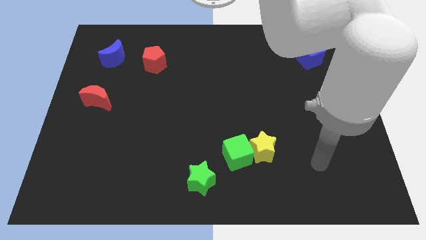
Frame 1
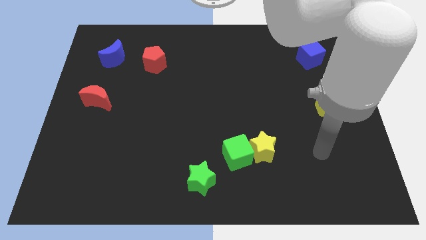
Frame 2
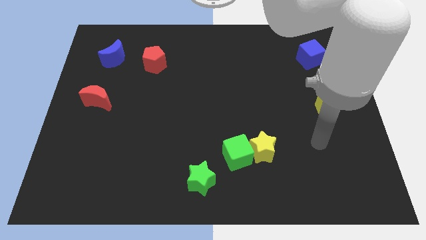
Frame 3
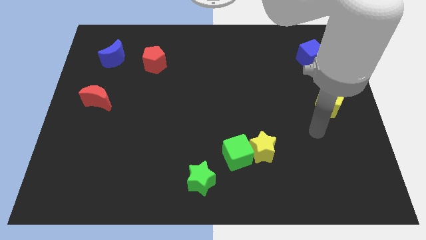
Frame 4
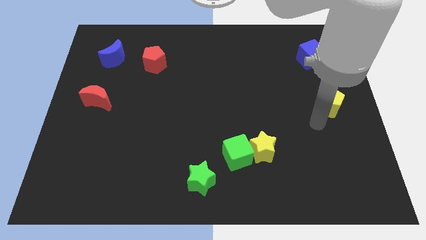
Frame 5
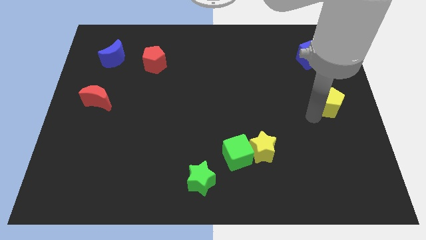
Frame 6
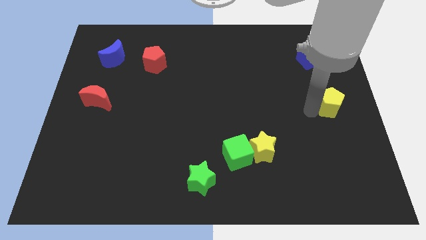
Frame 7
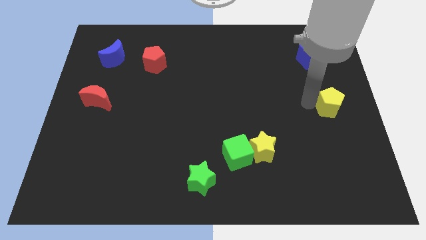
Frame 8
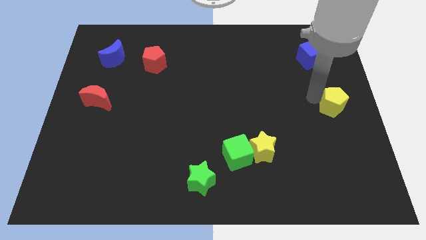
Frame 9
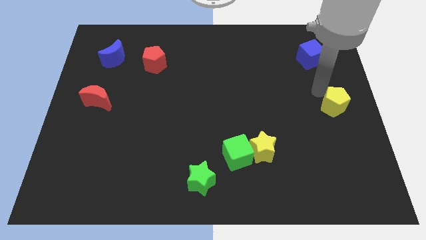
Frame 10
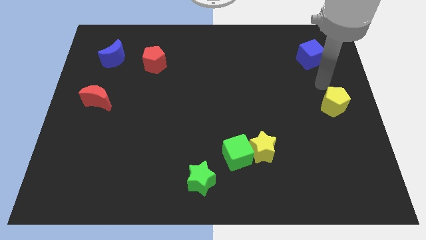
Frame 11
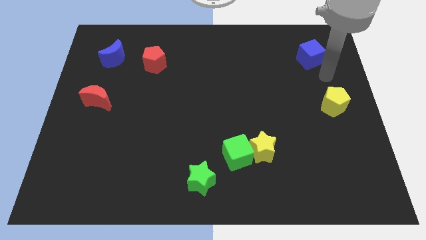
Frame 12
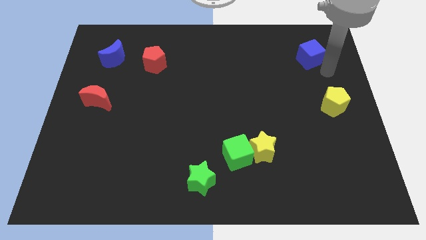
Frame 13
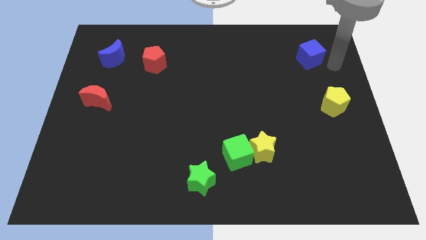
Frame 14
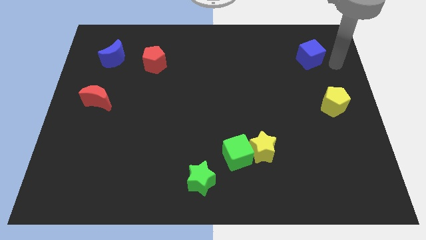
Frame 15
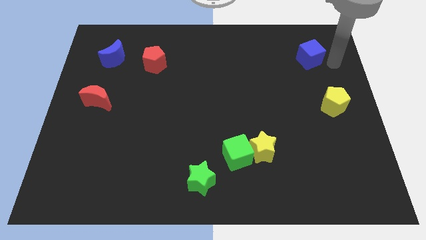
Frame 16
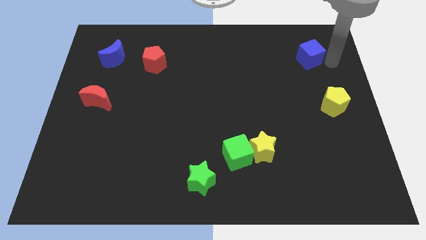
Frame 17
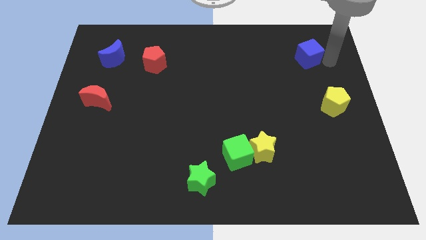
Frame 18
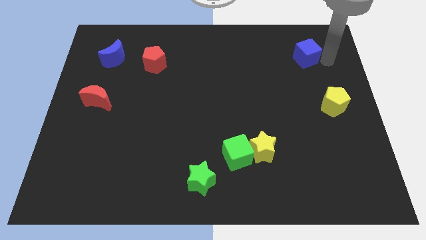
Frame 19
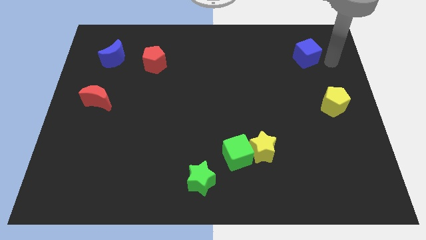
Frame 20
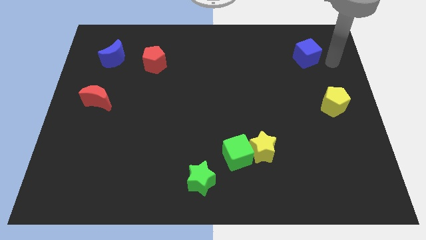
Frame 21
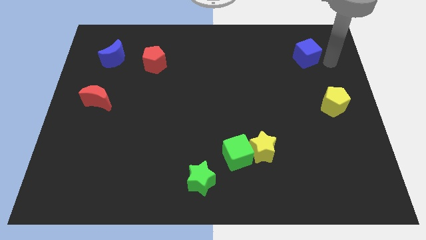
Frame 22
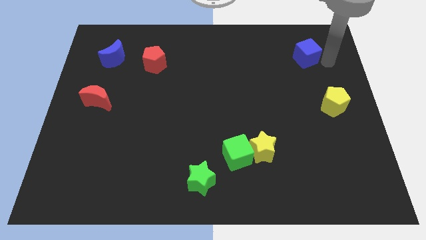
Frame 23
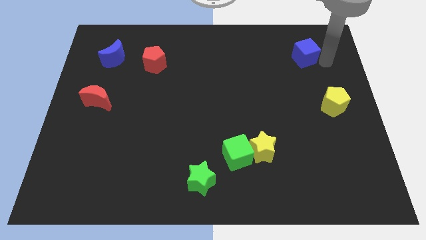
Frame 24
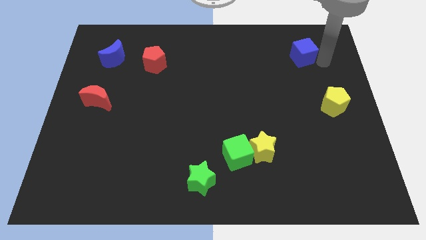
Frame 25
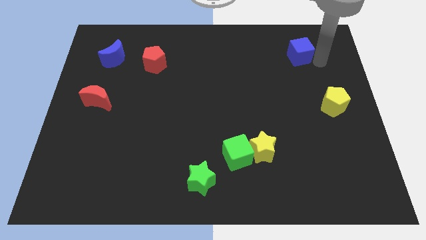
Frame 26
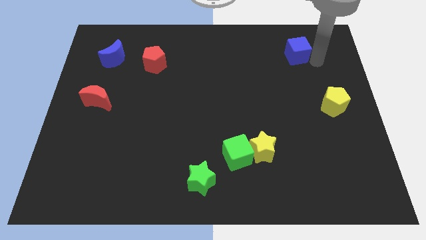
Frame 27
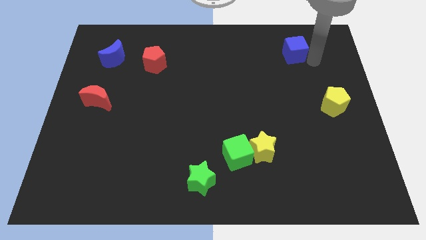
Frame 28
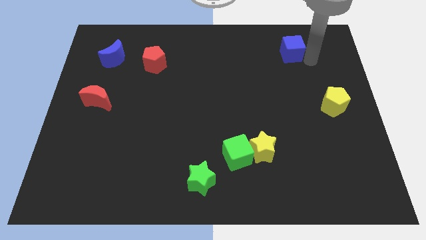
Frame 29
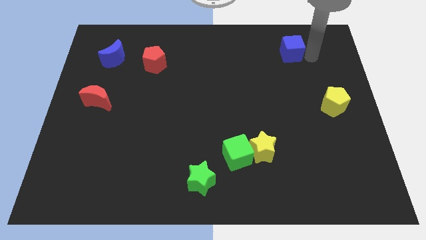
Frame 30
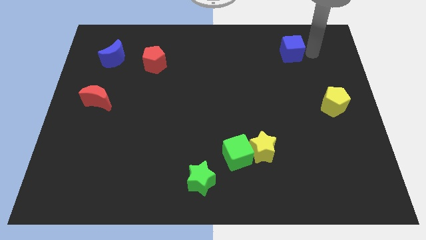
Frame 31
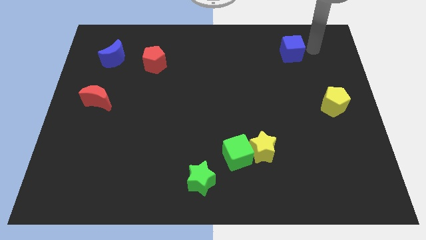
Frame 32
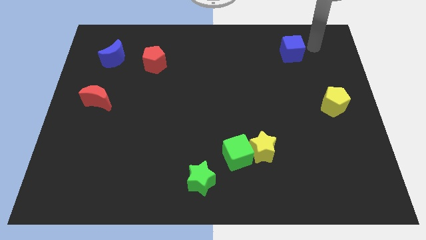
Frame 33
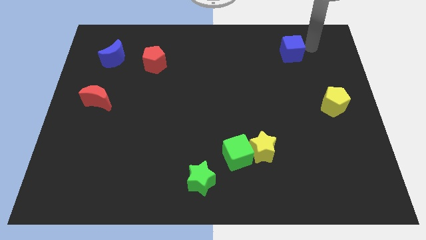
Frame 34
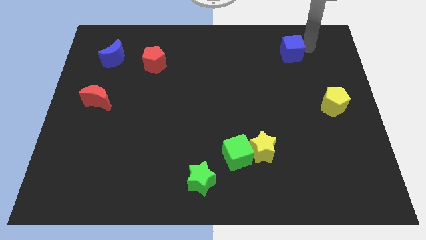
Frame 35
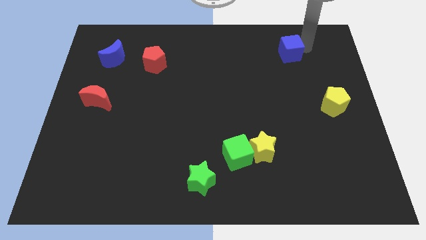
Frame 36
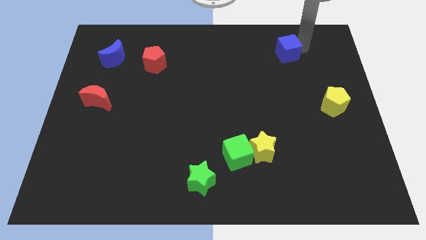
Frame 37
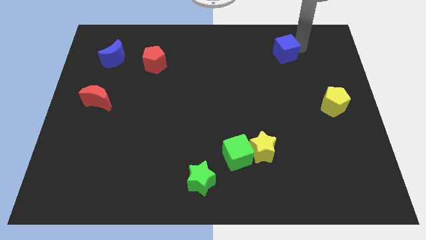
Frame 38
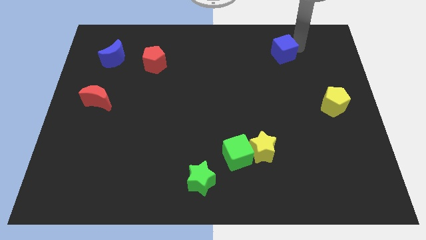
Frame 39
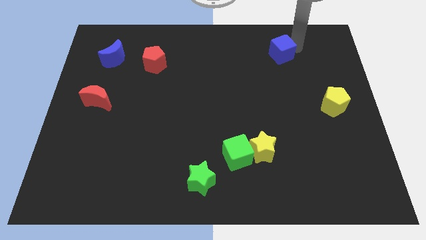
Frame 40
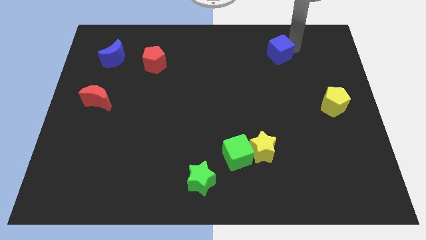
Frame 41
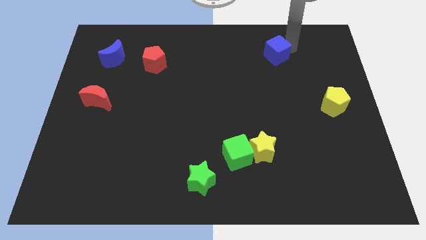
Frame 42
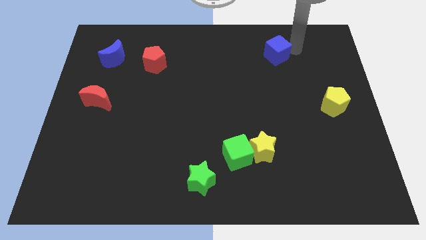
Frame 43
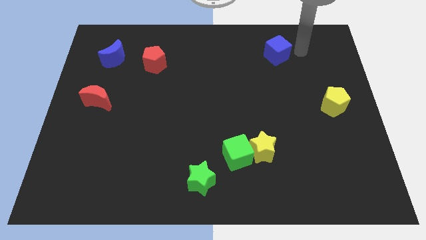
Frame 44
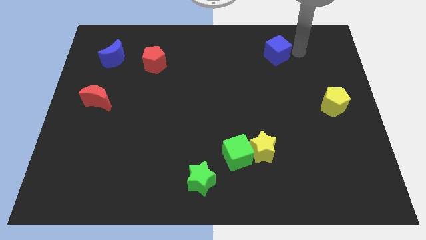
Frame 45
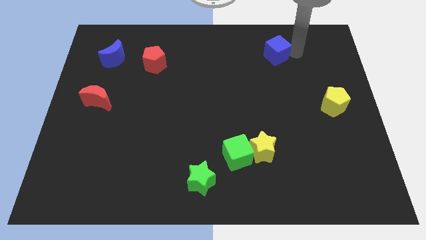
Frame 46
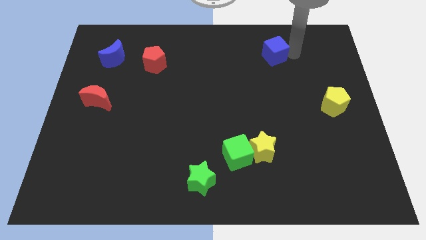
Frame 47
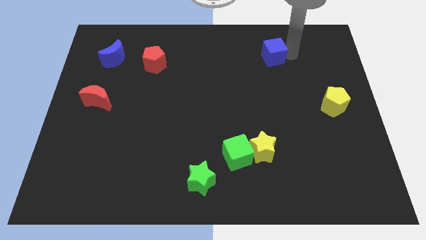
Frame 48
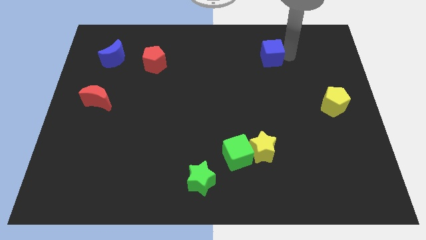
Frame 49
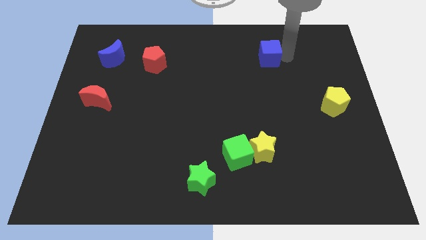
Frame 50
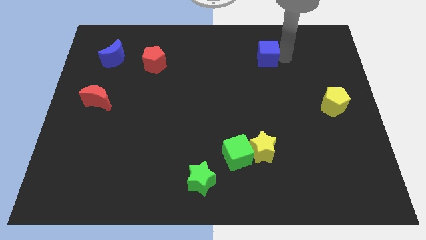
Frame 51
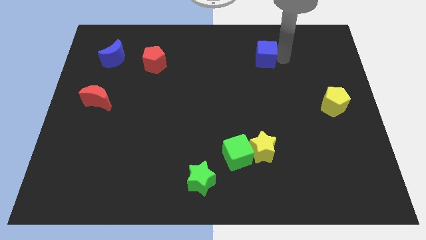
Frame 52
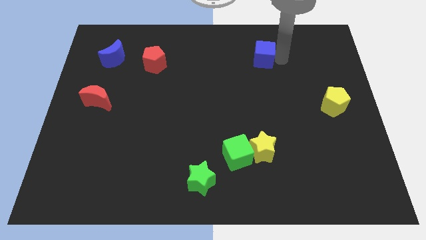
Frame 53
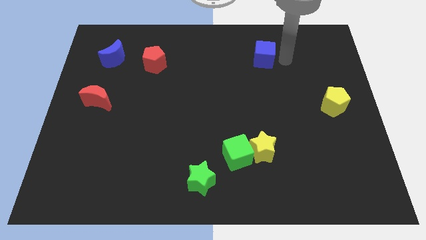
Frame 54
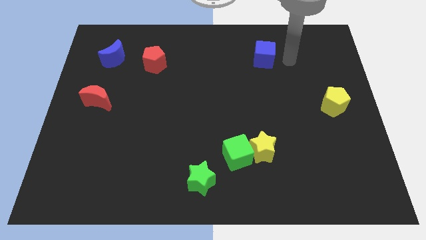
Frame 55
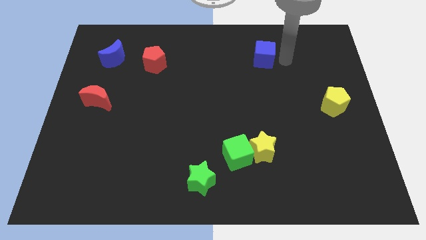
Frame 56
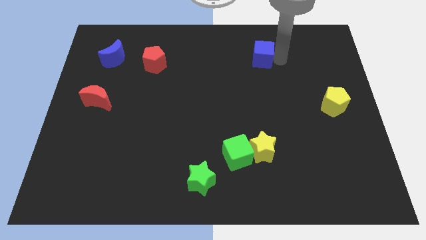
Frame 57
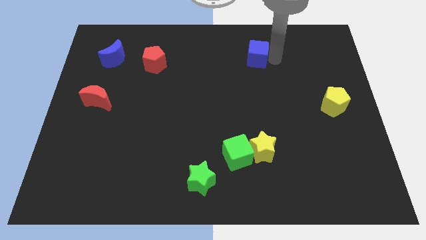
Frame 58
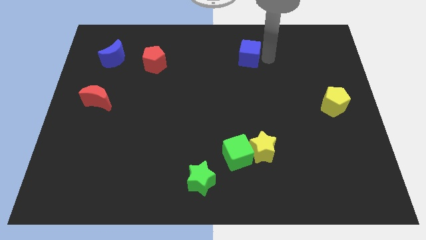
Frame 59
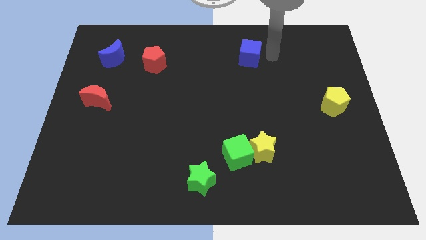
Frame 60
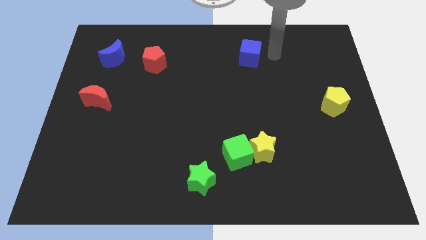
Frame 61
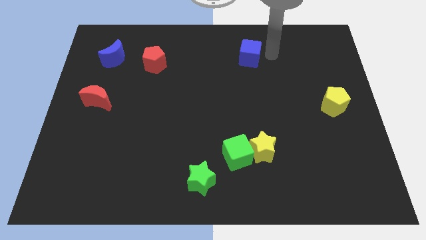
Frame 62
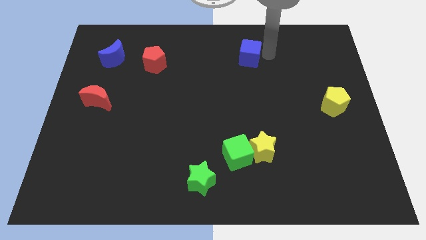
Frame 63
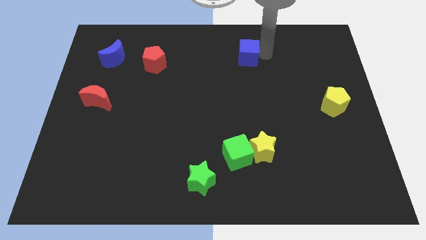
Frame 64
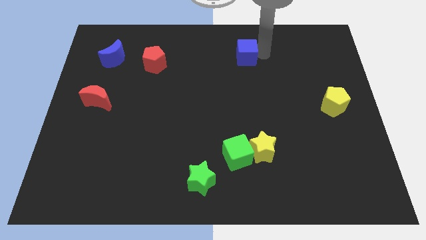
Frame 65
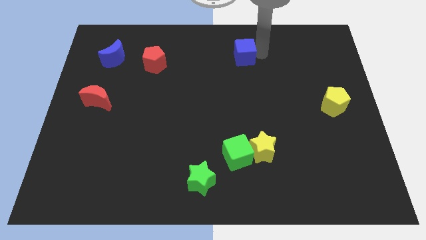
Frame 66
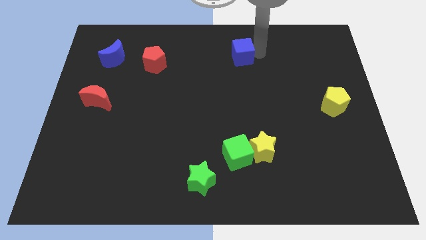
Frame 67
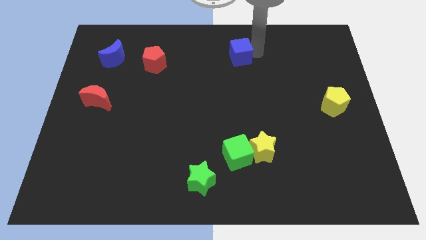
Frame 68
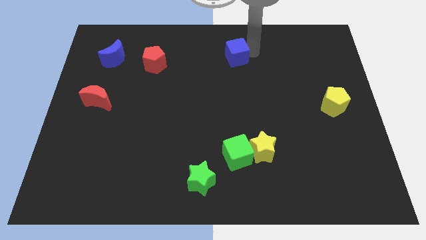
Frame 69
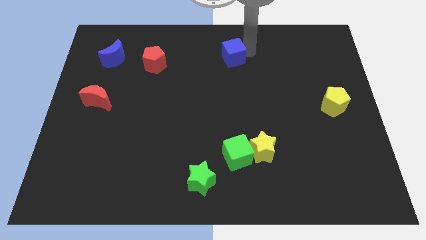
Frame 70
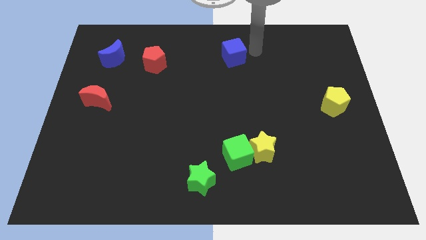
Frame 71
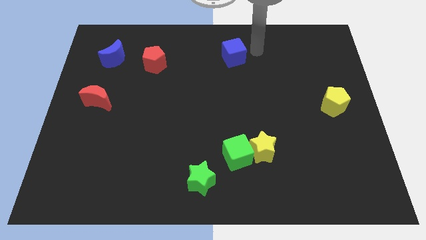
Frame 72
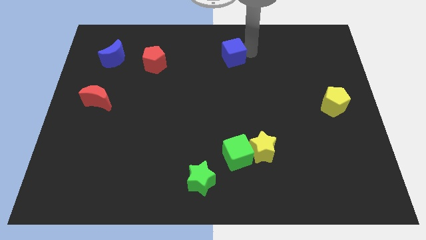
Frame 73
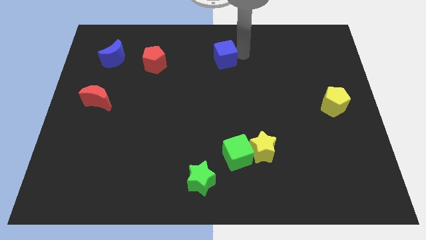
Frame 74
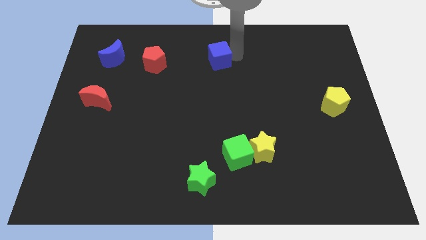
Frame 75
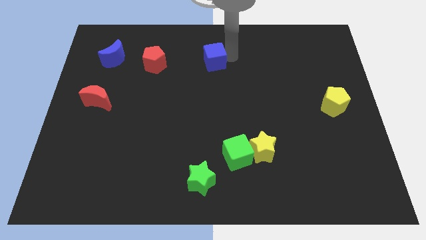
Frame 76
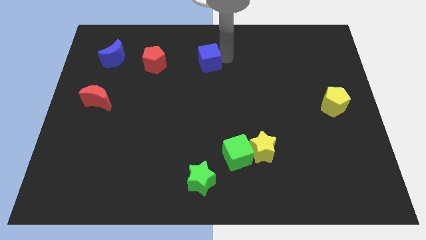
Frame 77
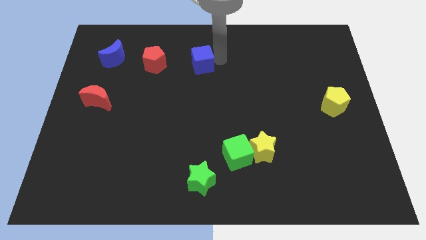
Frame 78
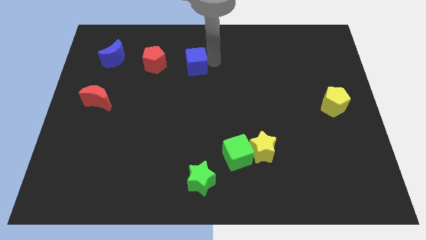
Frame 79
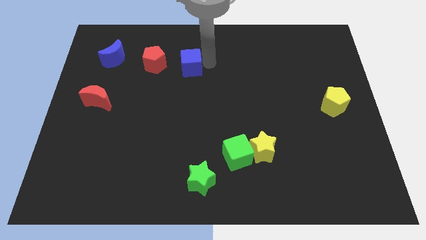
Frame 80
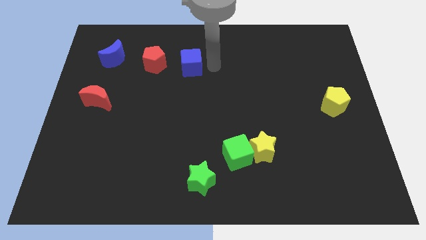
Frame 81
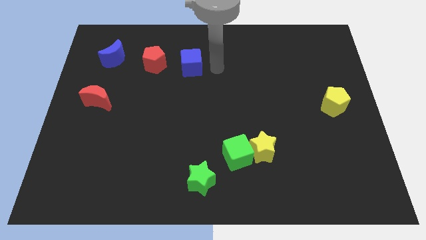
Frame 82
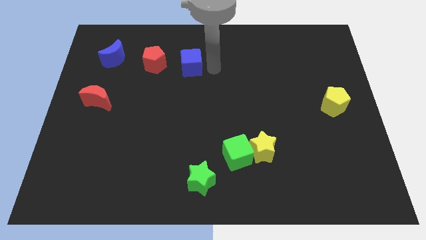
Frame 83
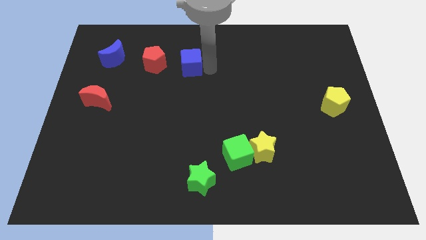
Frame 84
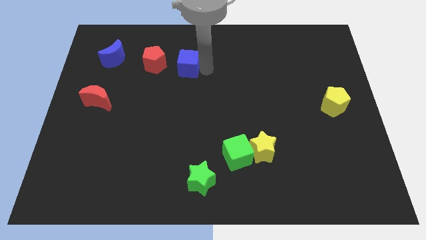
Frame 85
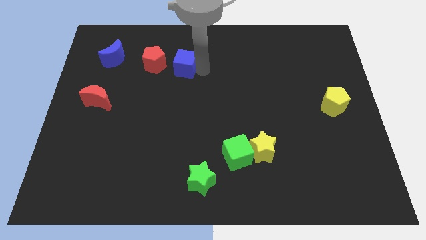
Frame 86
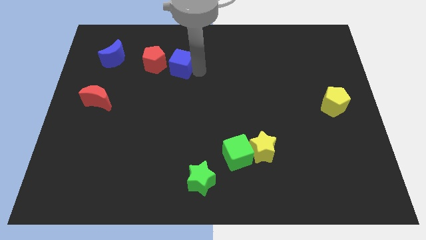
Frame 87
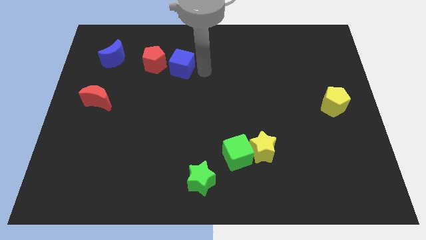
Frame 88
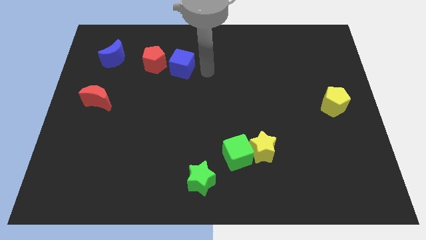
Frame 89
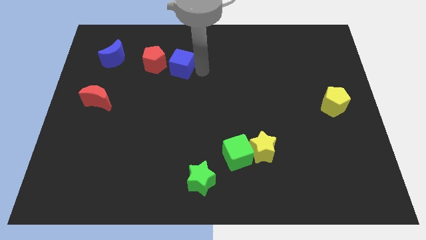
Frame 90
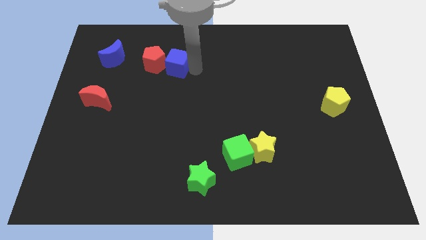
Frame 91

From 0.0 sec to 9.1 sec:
push the blue cube towards the red pentagon
